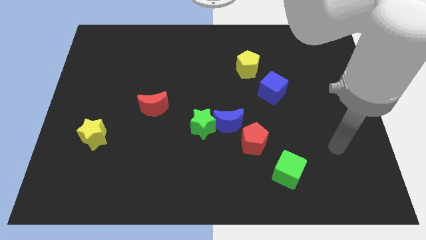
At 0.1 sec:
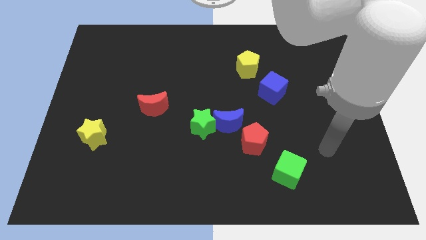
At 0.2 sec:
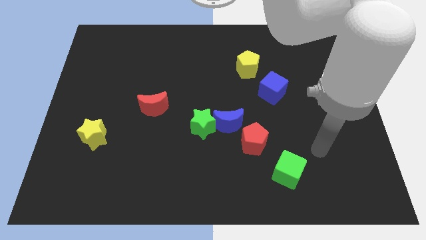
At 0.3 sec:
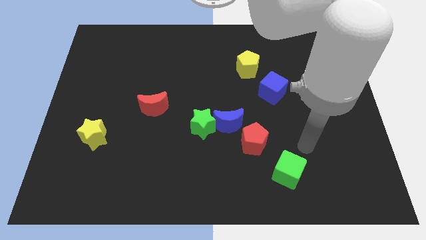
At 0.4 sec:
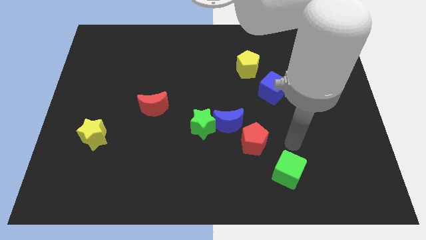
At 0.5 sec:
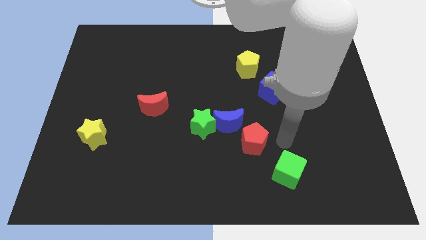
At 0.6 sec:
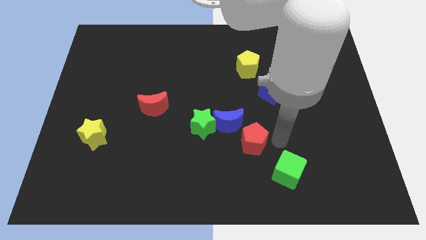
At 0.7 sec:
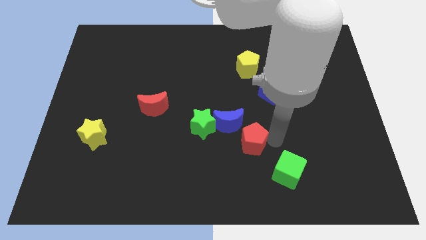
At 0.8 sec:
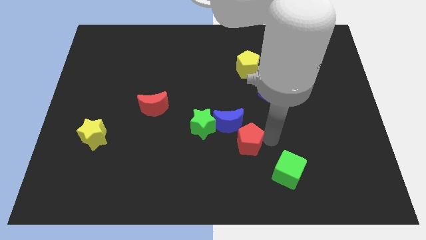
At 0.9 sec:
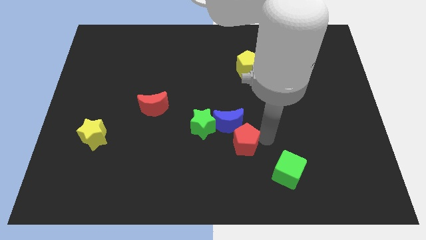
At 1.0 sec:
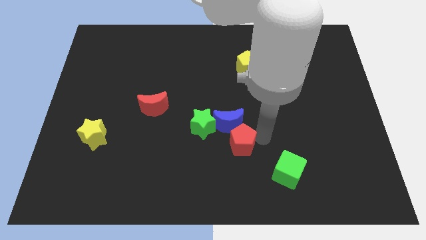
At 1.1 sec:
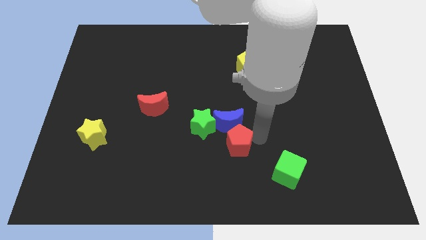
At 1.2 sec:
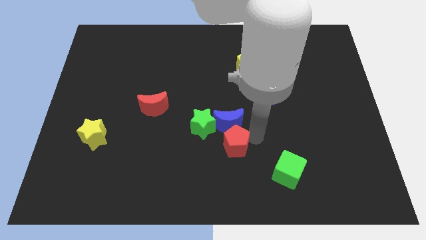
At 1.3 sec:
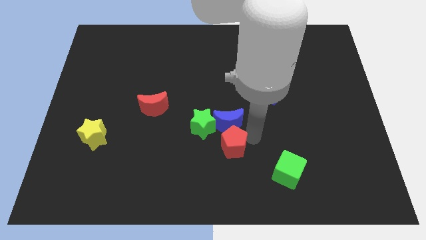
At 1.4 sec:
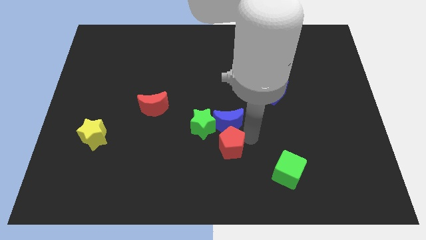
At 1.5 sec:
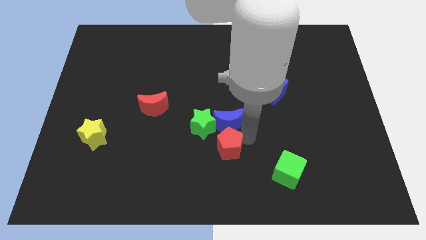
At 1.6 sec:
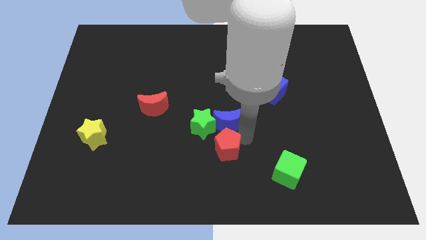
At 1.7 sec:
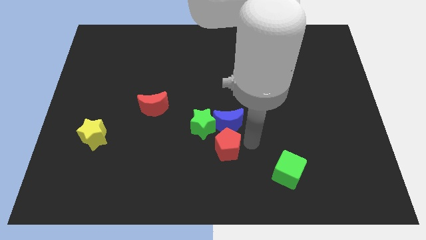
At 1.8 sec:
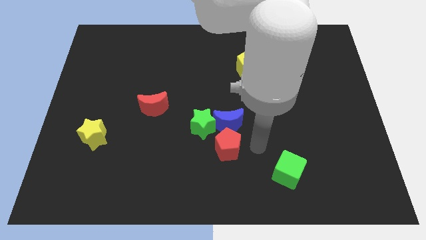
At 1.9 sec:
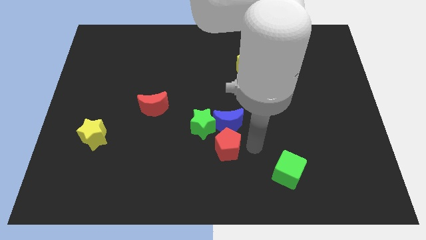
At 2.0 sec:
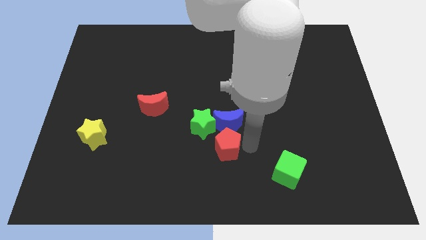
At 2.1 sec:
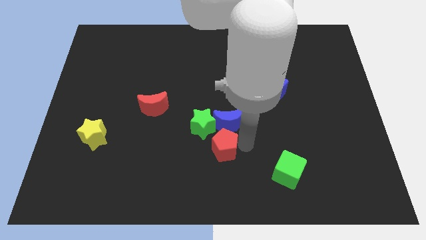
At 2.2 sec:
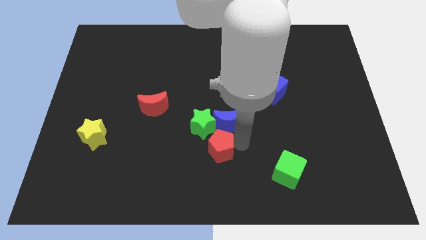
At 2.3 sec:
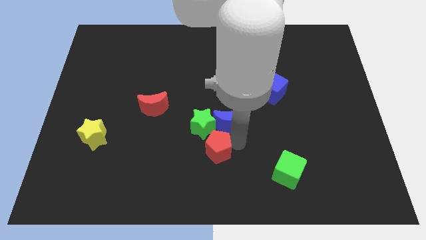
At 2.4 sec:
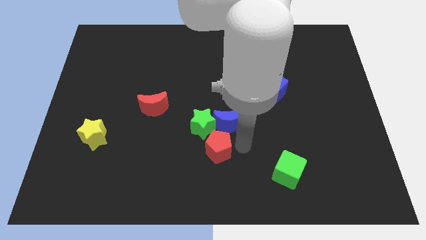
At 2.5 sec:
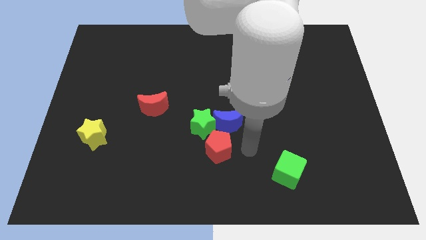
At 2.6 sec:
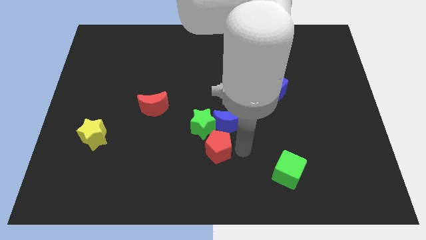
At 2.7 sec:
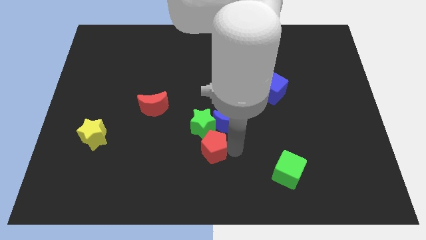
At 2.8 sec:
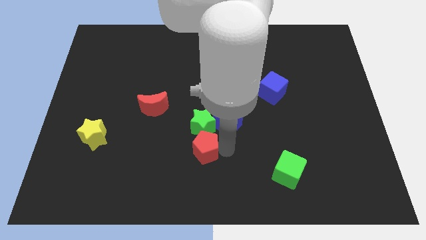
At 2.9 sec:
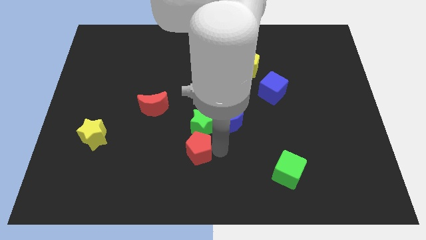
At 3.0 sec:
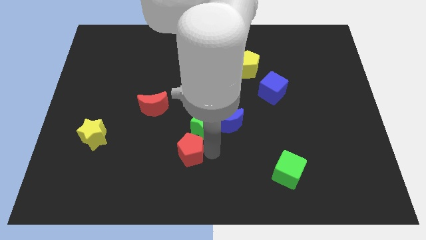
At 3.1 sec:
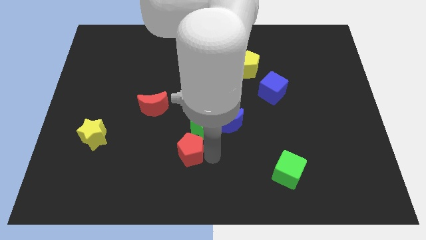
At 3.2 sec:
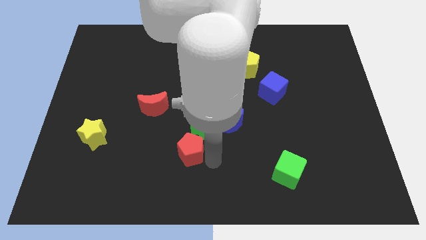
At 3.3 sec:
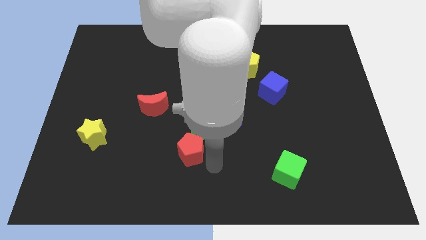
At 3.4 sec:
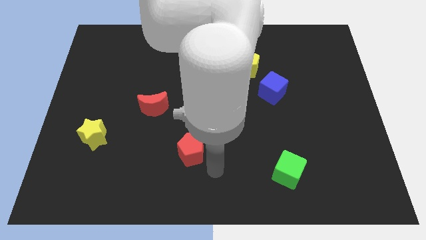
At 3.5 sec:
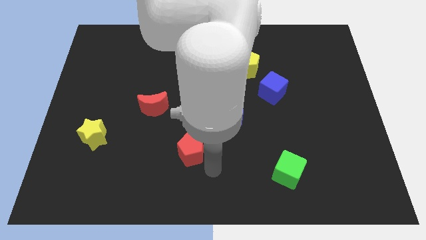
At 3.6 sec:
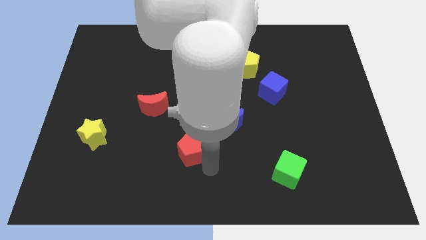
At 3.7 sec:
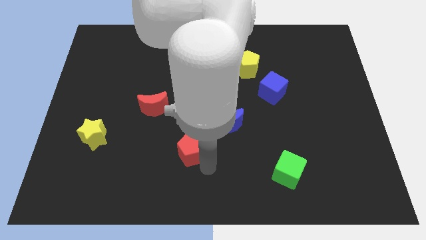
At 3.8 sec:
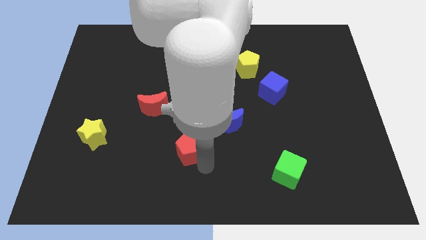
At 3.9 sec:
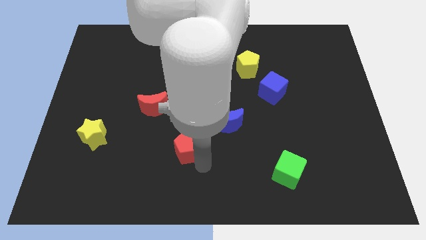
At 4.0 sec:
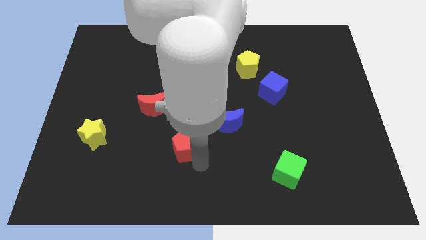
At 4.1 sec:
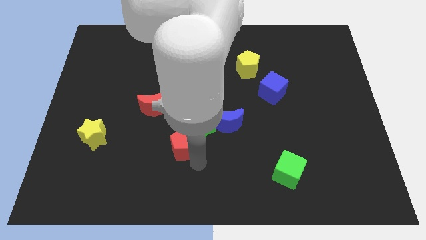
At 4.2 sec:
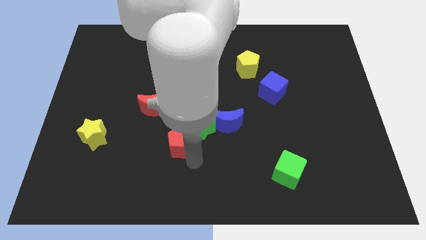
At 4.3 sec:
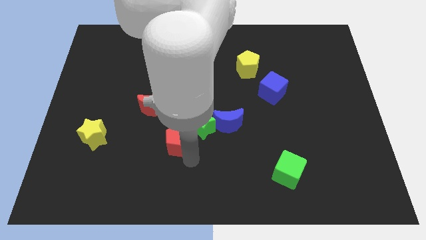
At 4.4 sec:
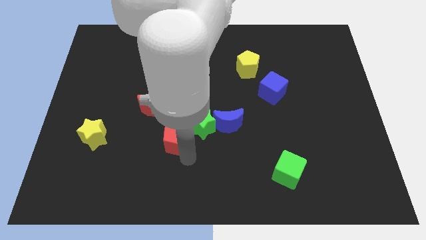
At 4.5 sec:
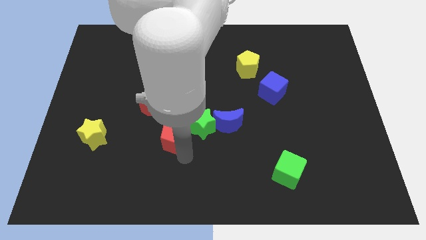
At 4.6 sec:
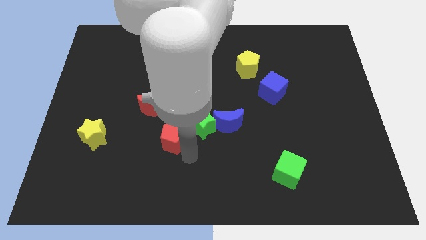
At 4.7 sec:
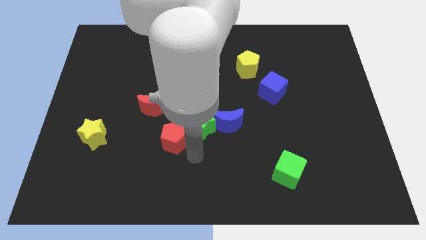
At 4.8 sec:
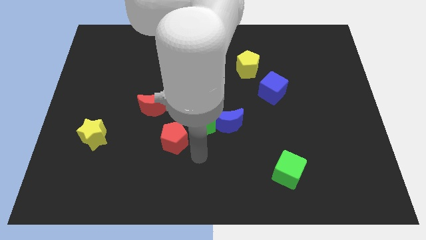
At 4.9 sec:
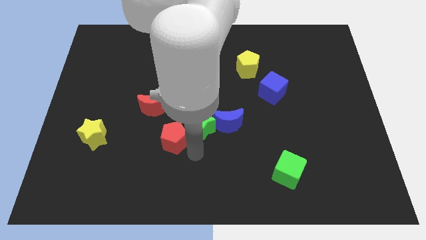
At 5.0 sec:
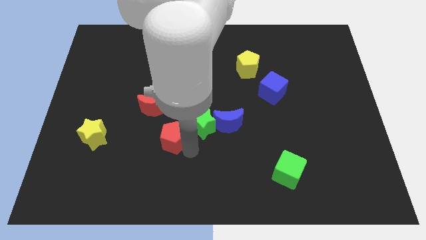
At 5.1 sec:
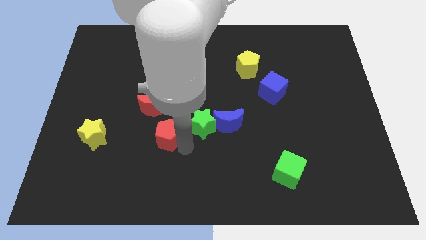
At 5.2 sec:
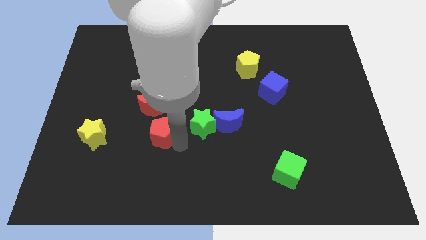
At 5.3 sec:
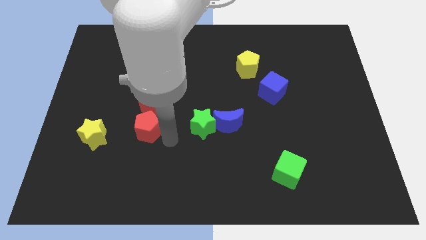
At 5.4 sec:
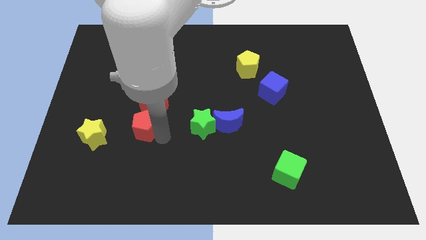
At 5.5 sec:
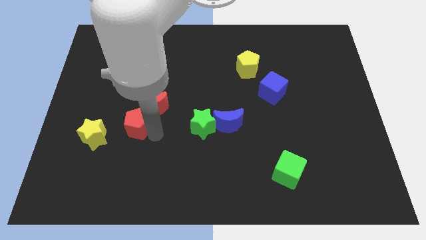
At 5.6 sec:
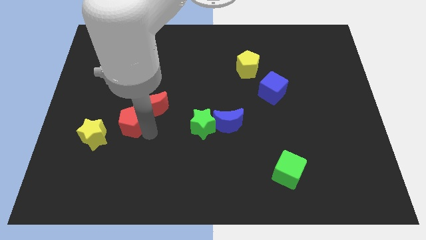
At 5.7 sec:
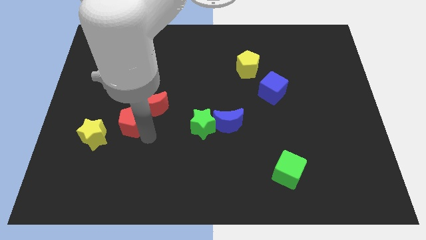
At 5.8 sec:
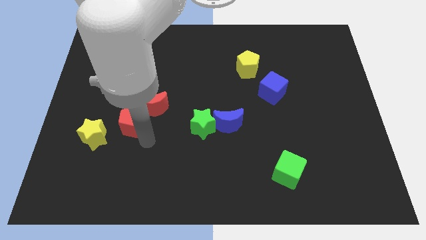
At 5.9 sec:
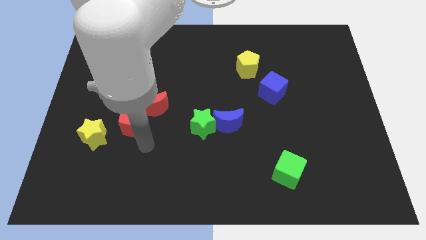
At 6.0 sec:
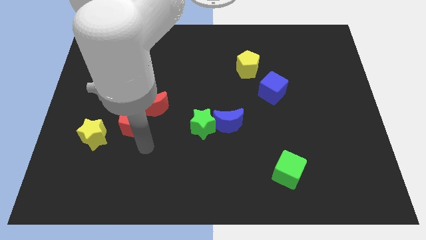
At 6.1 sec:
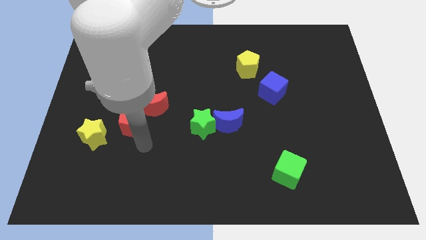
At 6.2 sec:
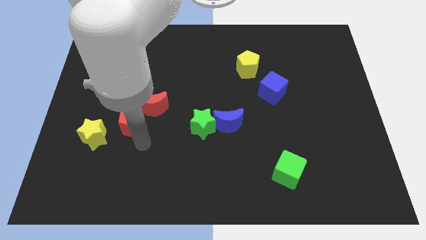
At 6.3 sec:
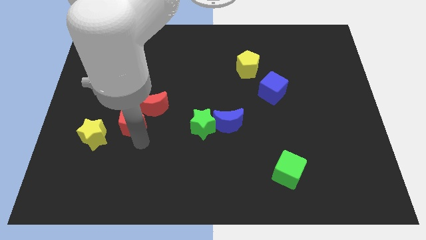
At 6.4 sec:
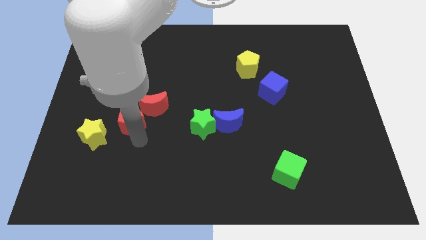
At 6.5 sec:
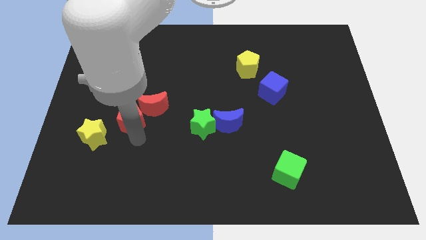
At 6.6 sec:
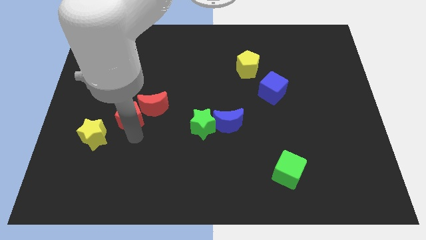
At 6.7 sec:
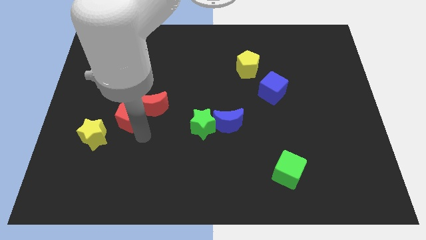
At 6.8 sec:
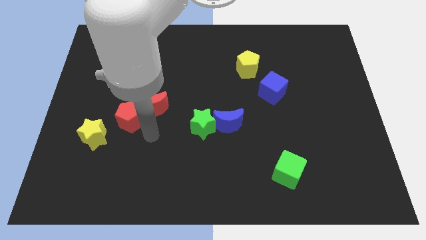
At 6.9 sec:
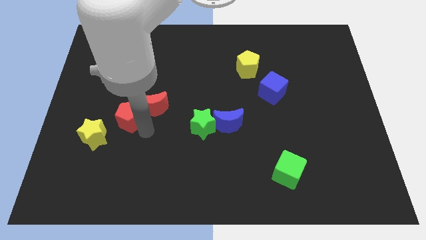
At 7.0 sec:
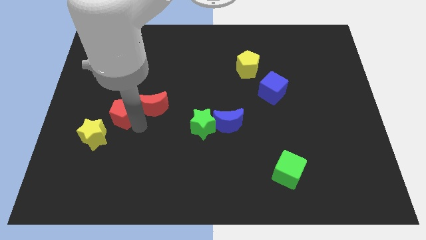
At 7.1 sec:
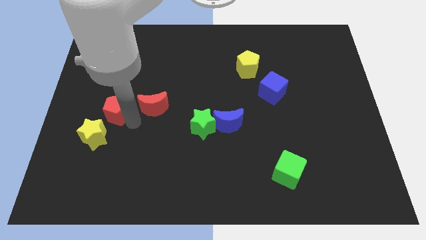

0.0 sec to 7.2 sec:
push the red pentagon above the yellow star
